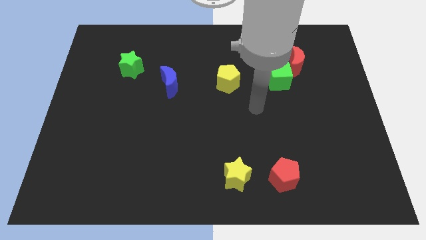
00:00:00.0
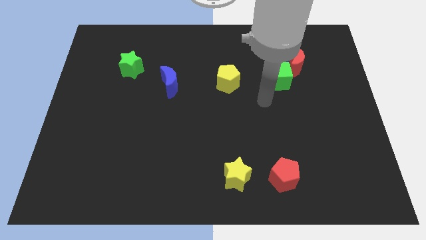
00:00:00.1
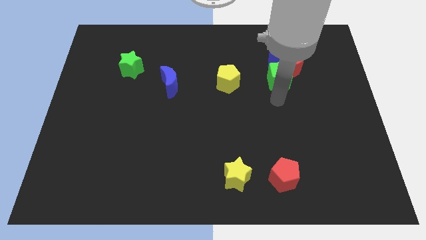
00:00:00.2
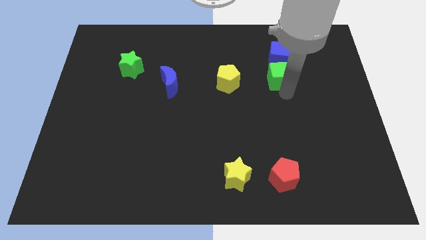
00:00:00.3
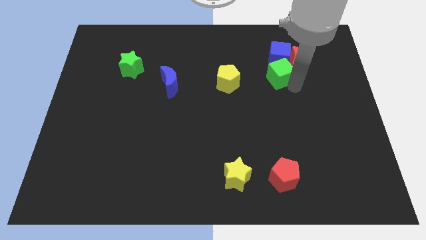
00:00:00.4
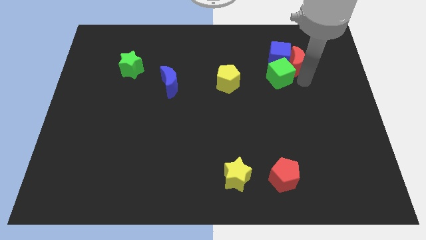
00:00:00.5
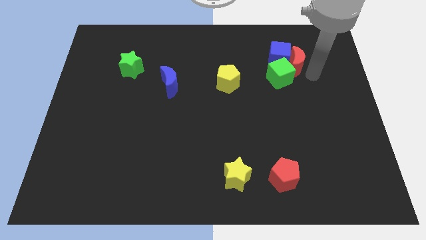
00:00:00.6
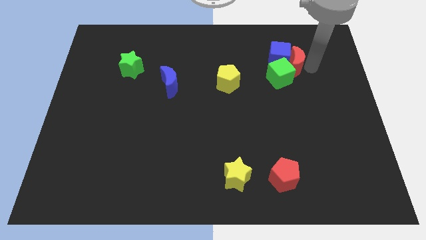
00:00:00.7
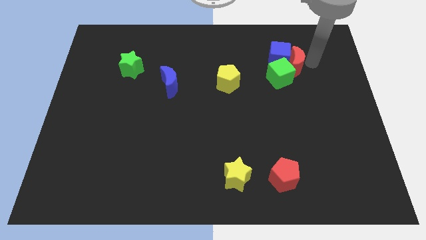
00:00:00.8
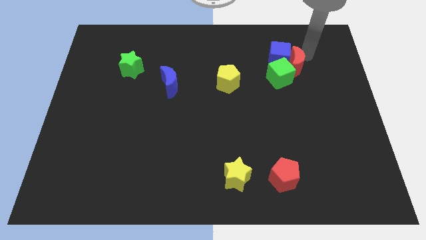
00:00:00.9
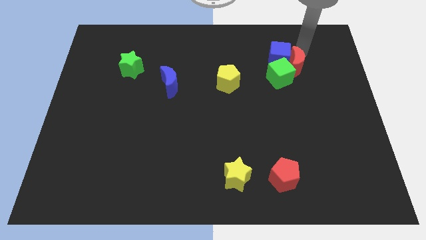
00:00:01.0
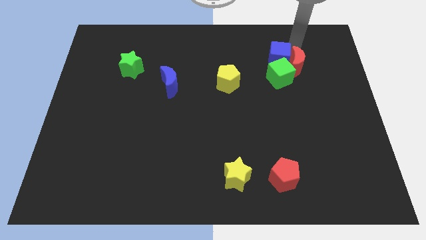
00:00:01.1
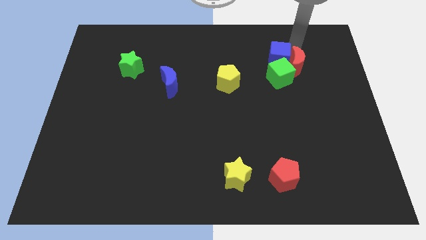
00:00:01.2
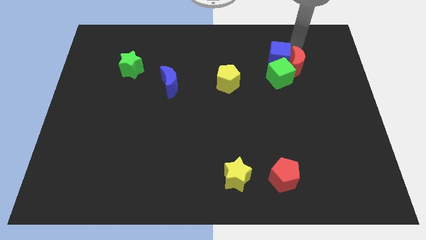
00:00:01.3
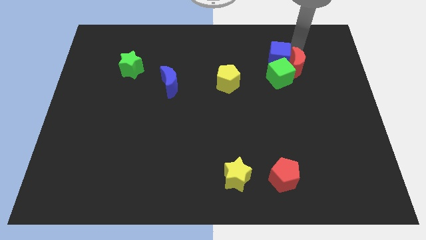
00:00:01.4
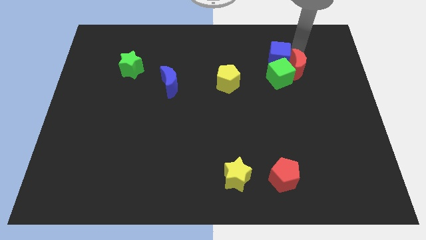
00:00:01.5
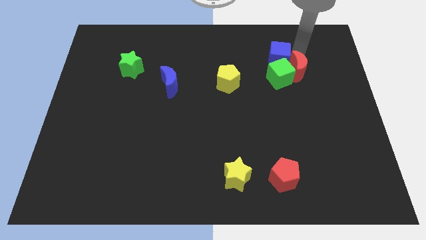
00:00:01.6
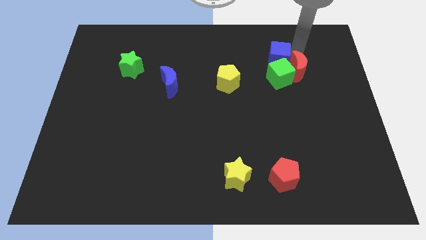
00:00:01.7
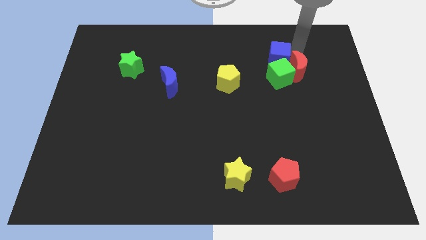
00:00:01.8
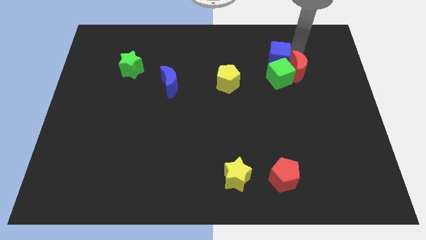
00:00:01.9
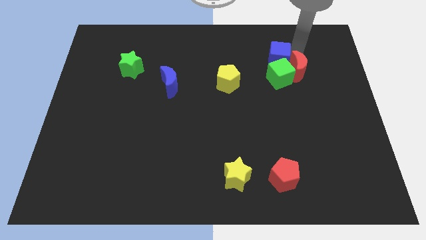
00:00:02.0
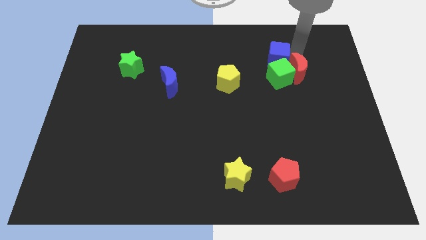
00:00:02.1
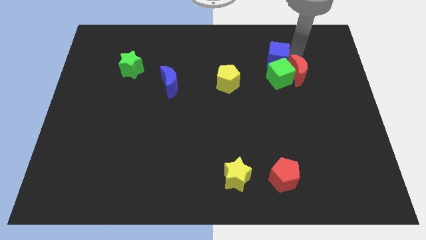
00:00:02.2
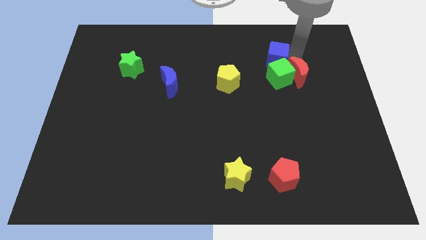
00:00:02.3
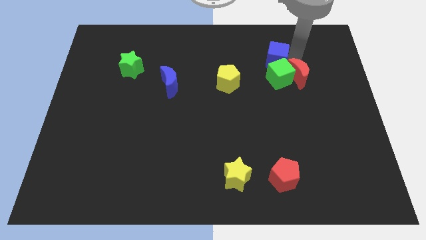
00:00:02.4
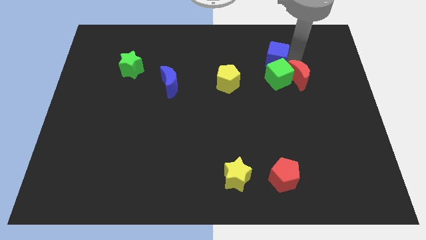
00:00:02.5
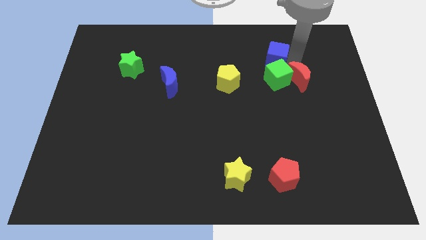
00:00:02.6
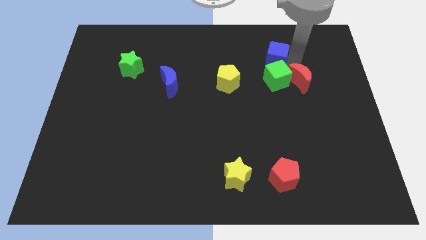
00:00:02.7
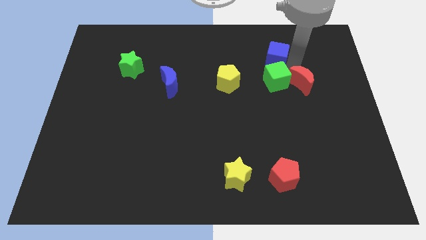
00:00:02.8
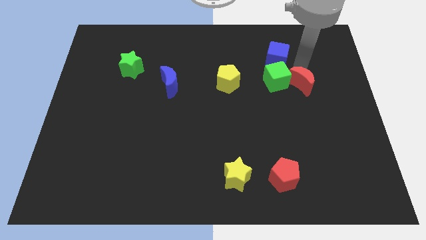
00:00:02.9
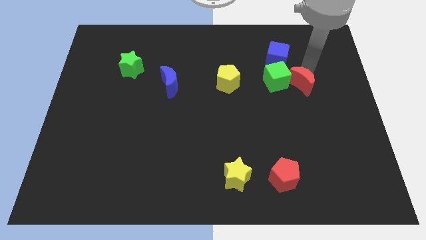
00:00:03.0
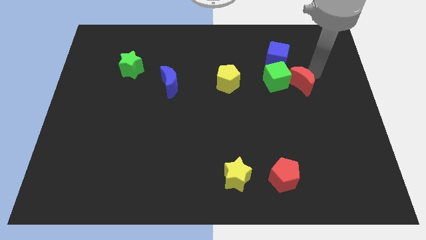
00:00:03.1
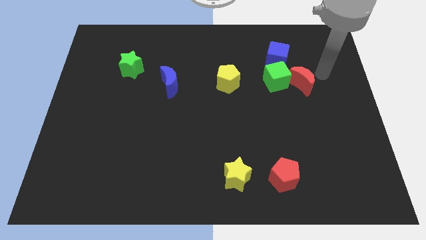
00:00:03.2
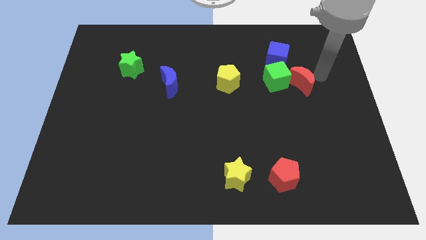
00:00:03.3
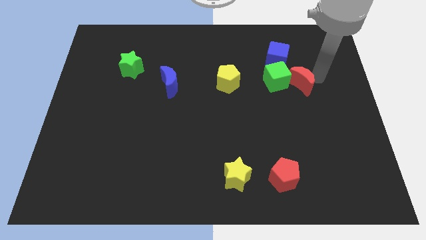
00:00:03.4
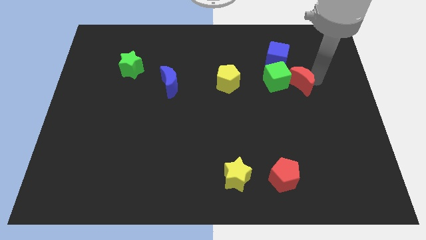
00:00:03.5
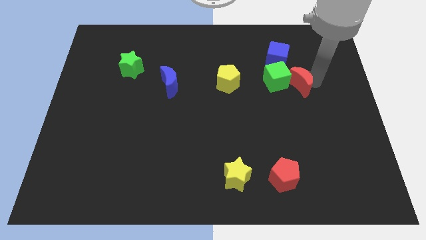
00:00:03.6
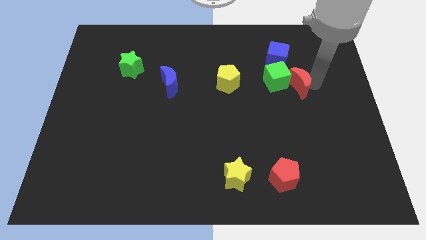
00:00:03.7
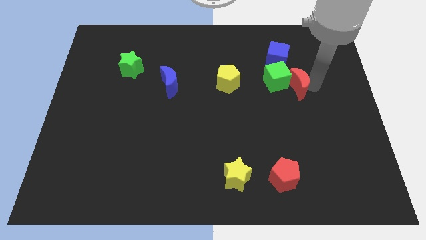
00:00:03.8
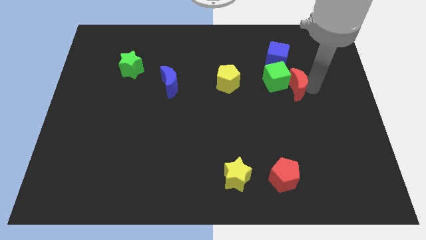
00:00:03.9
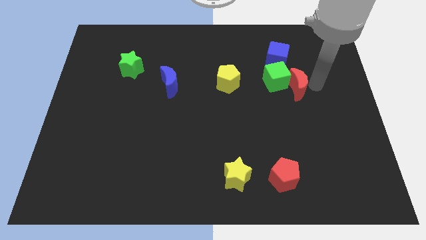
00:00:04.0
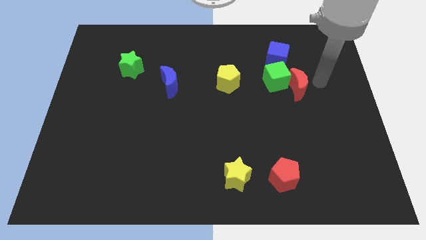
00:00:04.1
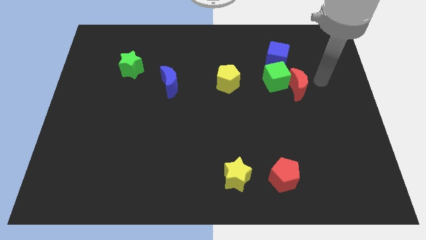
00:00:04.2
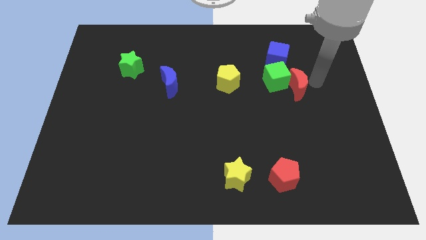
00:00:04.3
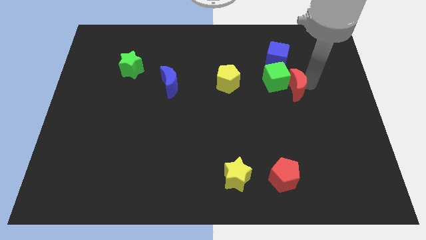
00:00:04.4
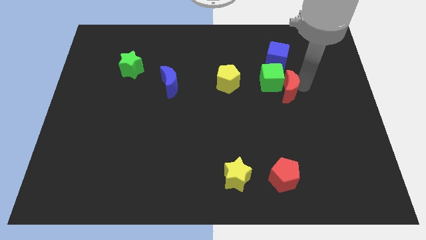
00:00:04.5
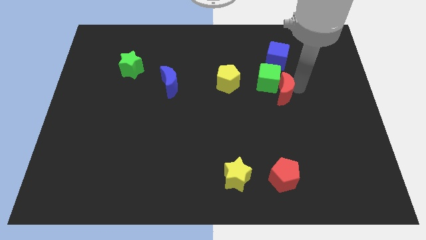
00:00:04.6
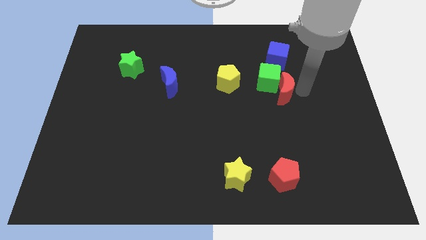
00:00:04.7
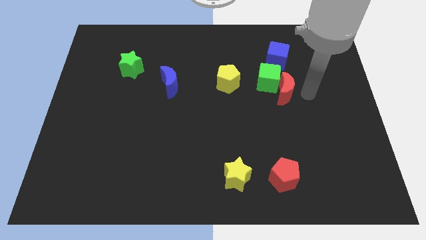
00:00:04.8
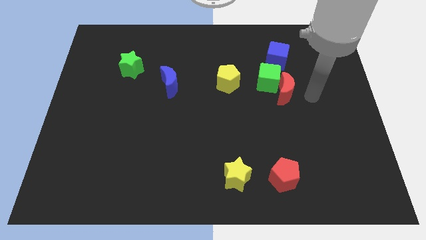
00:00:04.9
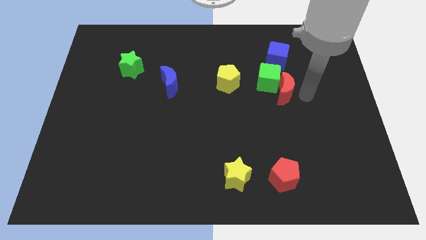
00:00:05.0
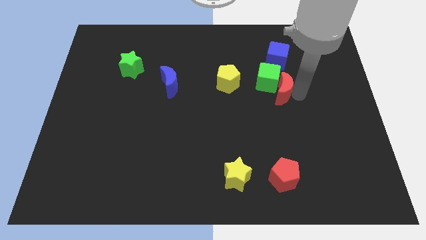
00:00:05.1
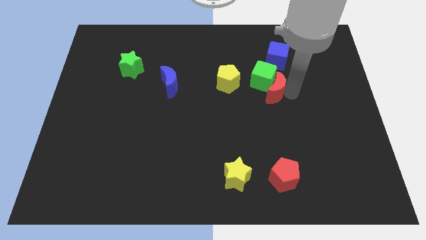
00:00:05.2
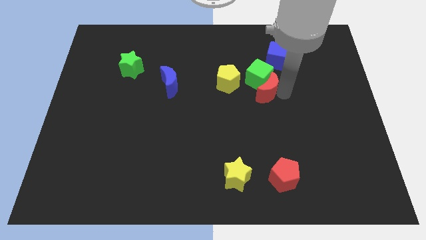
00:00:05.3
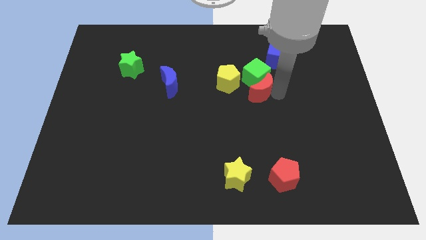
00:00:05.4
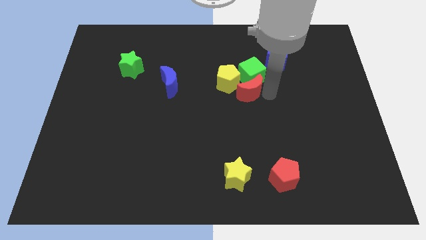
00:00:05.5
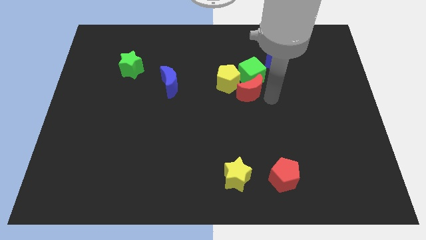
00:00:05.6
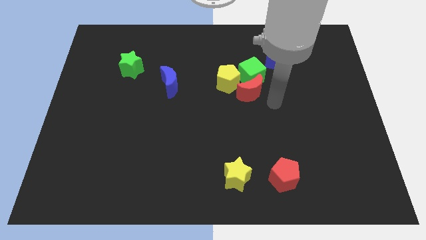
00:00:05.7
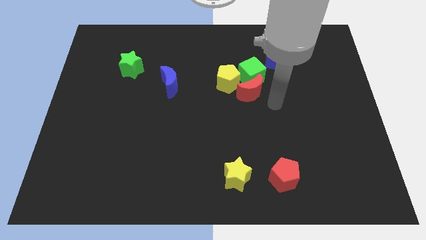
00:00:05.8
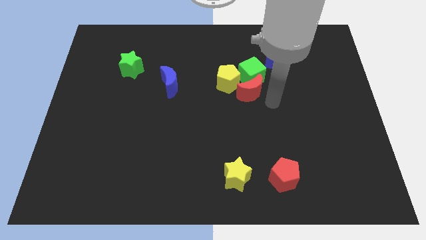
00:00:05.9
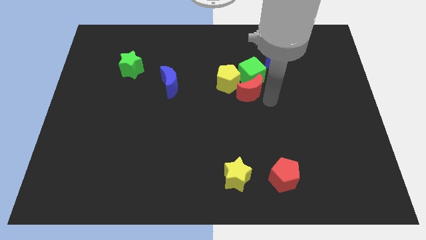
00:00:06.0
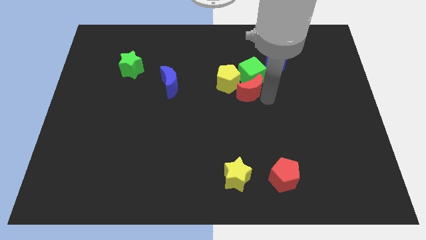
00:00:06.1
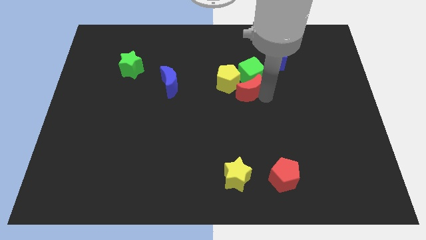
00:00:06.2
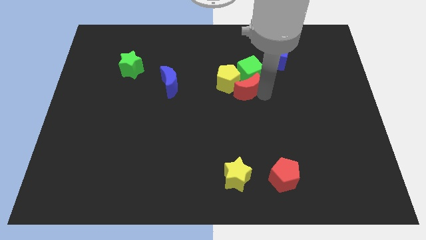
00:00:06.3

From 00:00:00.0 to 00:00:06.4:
slide the red moon close to the yellow pentagon

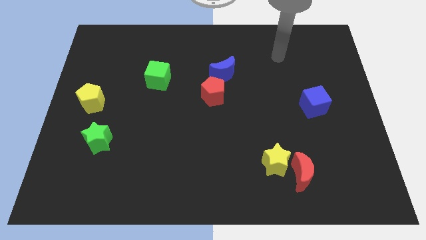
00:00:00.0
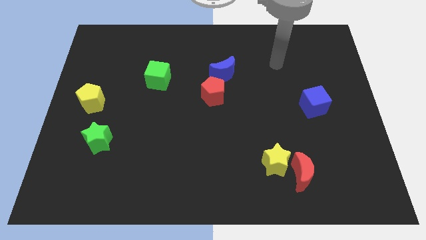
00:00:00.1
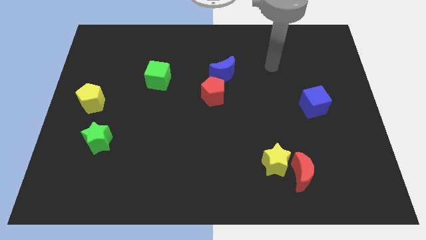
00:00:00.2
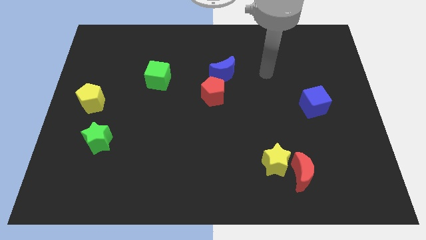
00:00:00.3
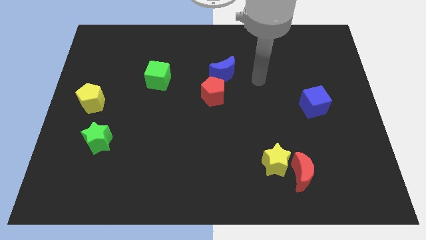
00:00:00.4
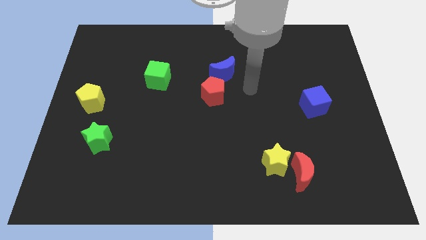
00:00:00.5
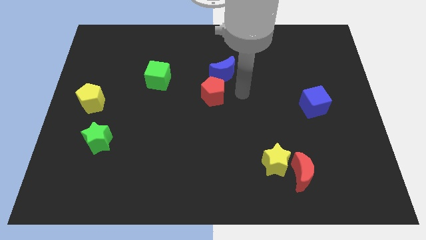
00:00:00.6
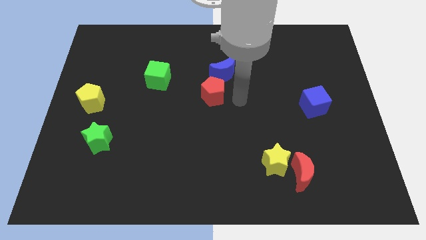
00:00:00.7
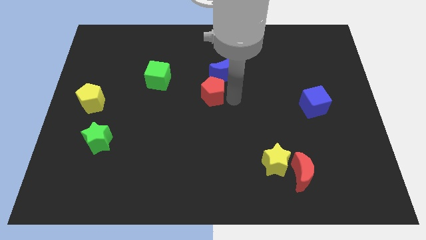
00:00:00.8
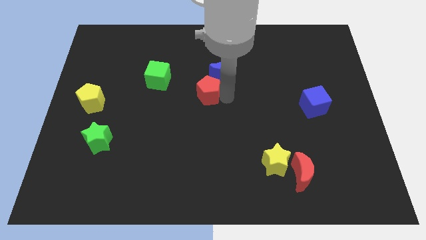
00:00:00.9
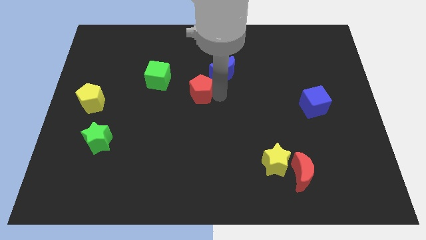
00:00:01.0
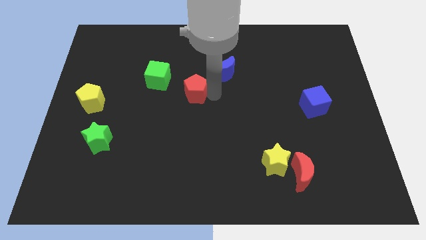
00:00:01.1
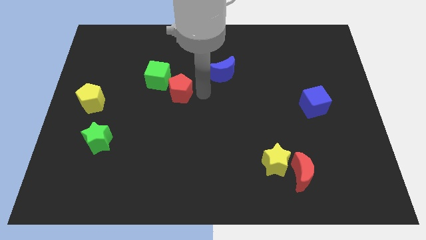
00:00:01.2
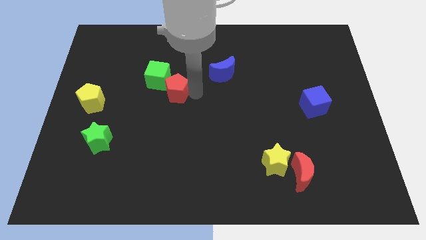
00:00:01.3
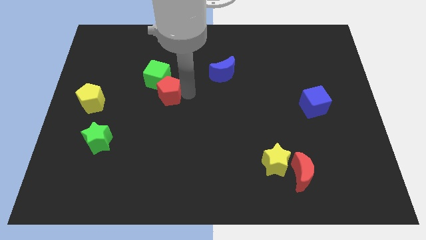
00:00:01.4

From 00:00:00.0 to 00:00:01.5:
slide the red pentagon to the green cube
